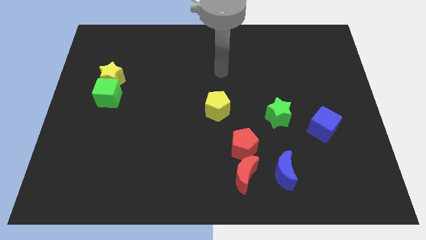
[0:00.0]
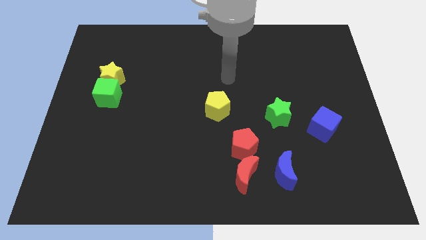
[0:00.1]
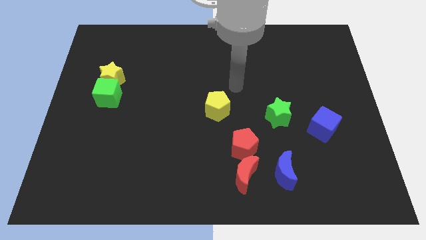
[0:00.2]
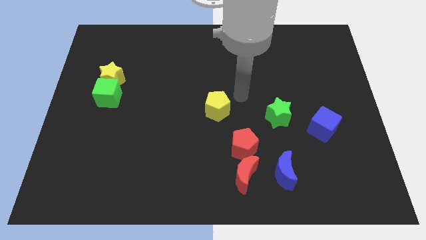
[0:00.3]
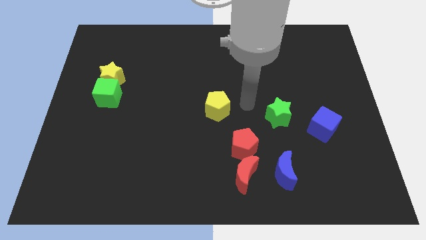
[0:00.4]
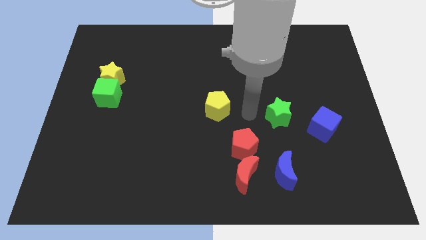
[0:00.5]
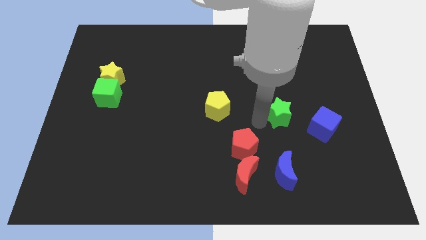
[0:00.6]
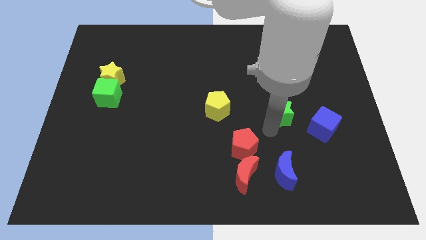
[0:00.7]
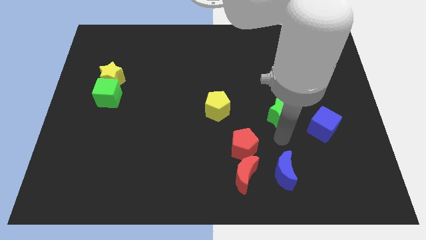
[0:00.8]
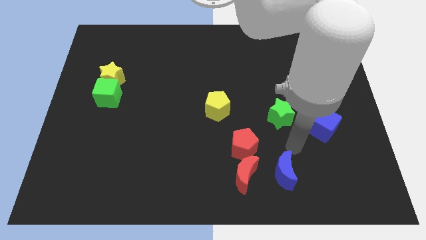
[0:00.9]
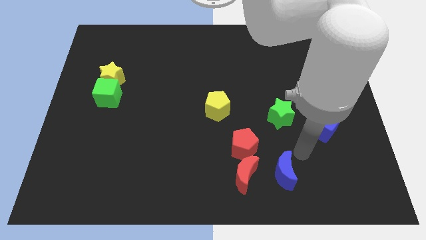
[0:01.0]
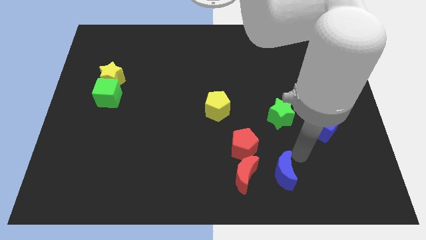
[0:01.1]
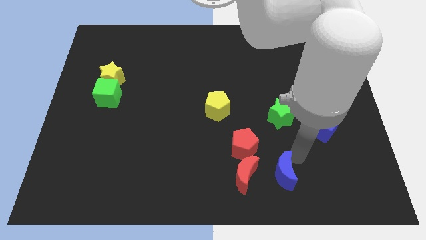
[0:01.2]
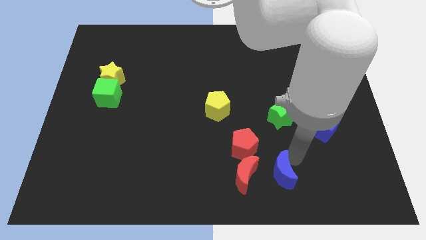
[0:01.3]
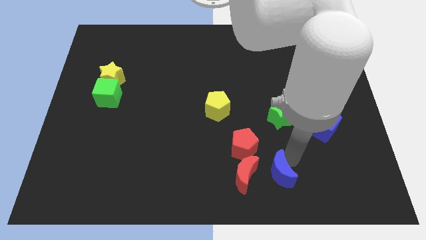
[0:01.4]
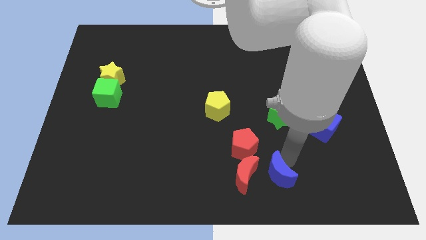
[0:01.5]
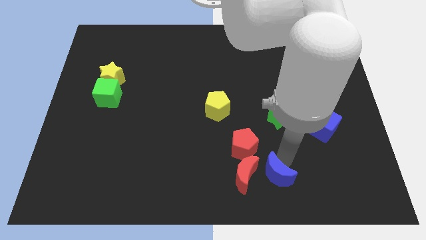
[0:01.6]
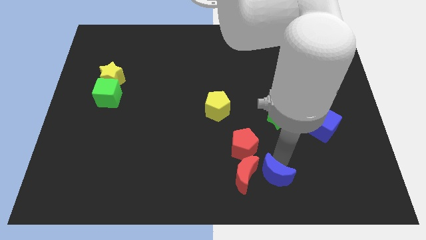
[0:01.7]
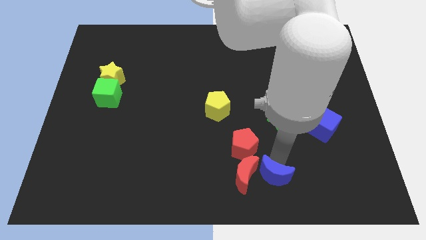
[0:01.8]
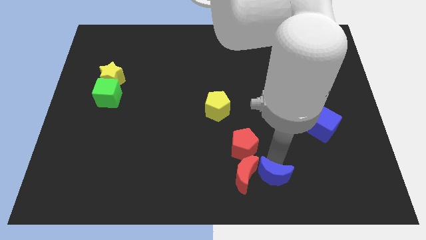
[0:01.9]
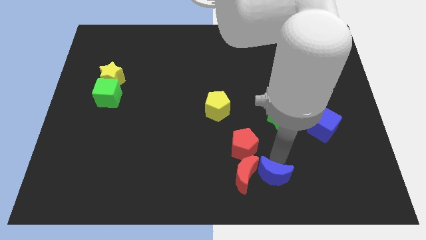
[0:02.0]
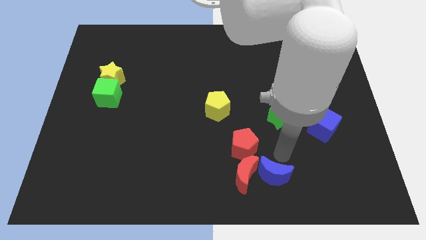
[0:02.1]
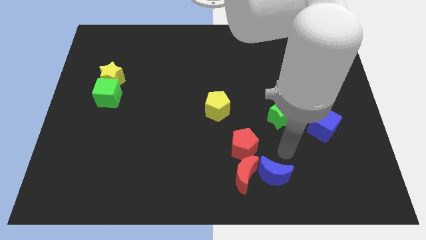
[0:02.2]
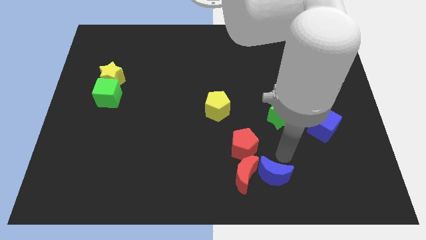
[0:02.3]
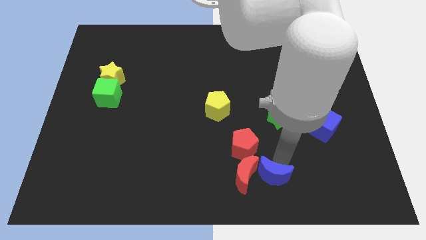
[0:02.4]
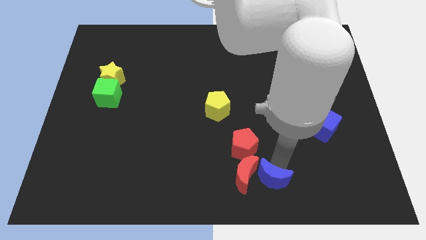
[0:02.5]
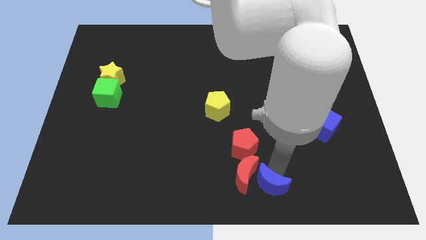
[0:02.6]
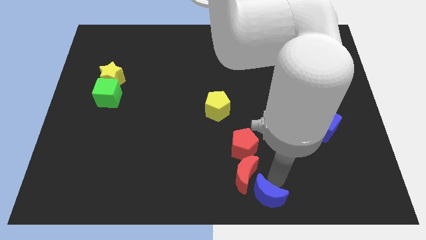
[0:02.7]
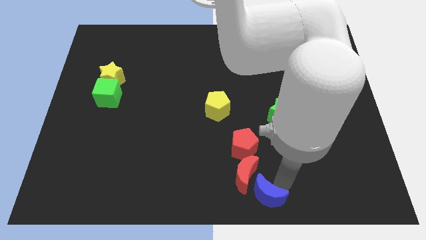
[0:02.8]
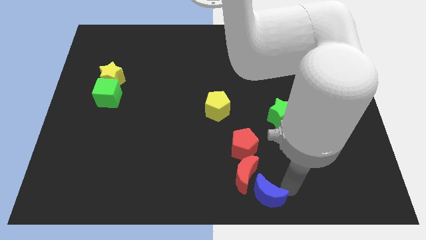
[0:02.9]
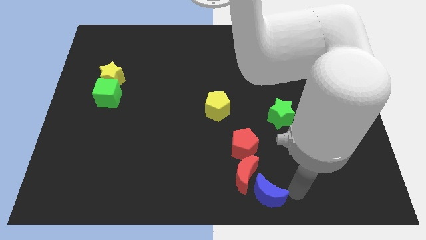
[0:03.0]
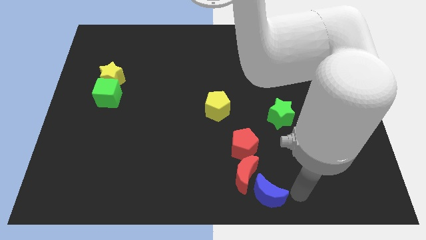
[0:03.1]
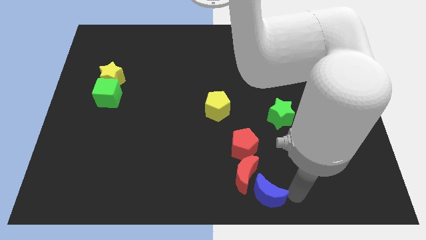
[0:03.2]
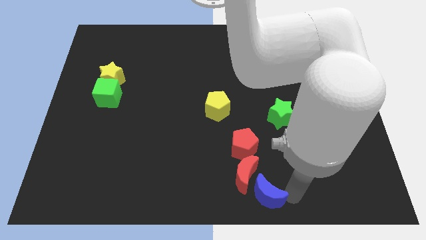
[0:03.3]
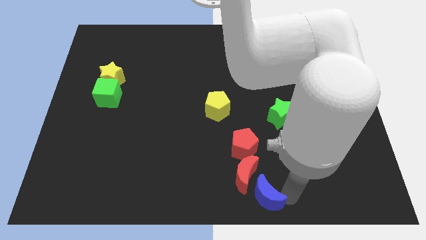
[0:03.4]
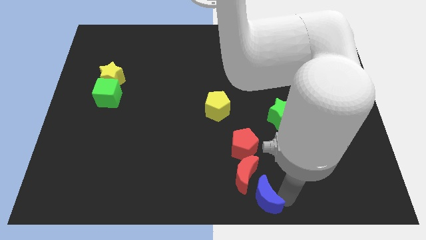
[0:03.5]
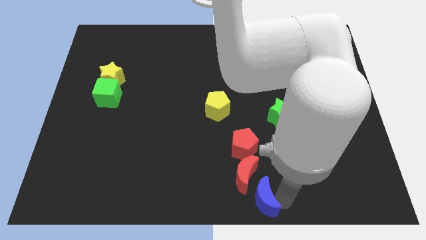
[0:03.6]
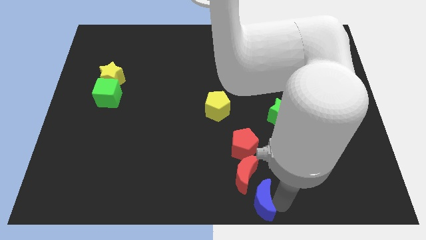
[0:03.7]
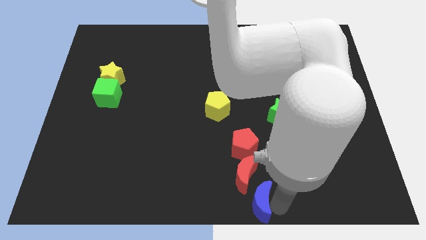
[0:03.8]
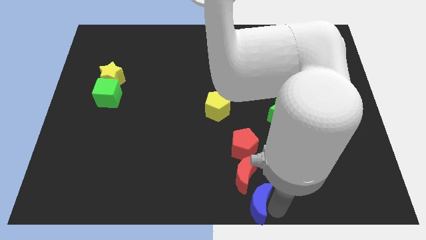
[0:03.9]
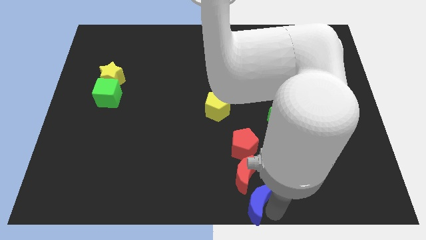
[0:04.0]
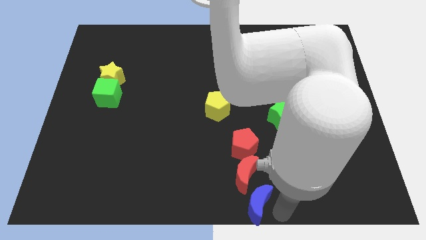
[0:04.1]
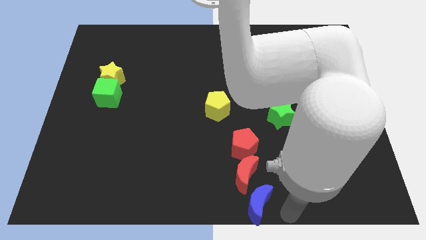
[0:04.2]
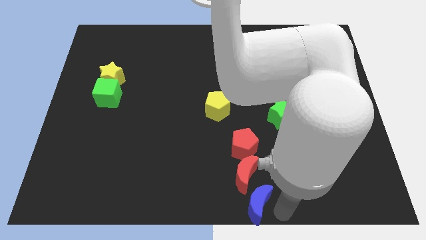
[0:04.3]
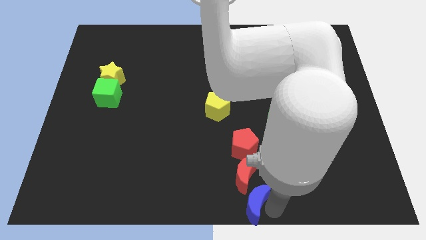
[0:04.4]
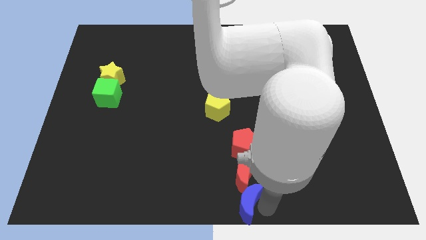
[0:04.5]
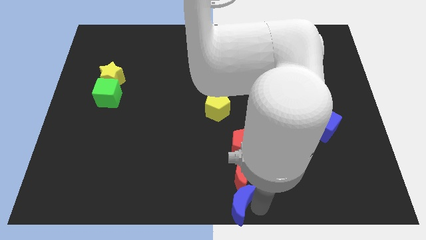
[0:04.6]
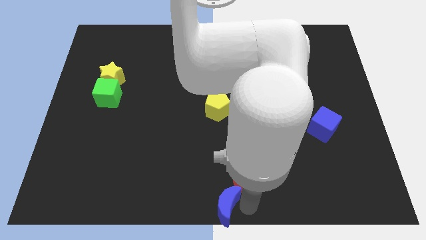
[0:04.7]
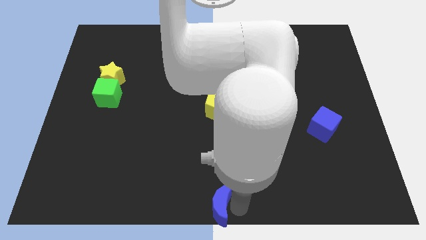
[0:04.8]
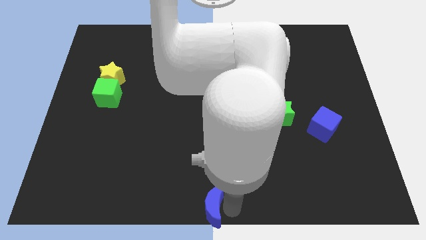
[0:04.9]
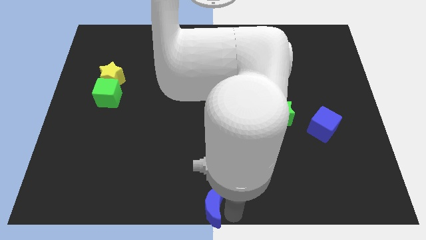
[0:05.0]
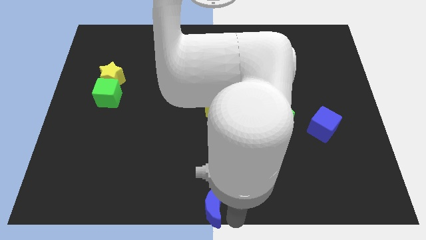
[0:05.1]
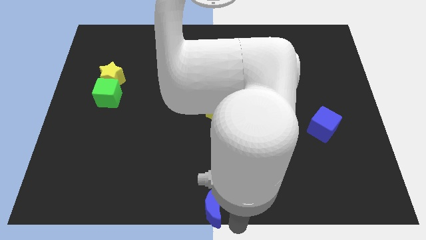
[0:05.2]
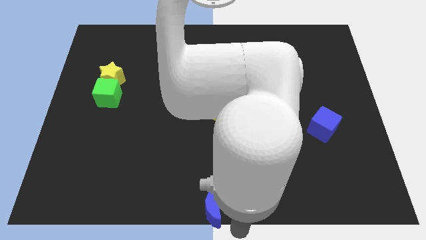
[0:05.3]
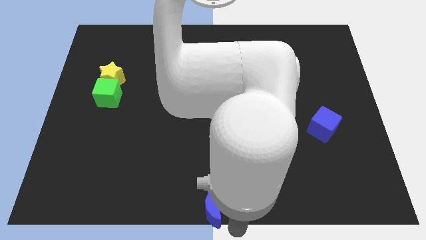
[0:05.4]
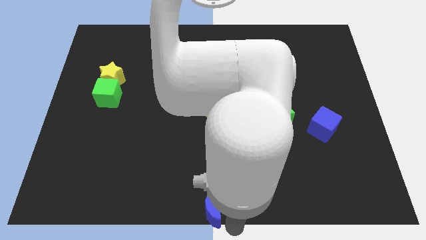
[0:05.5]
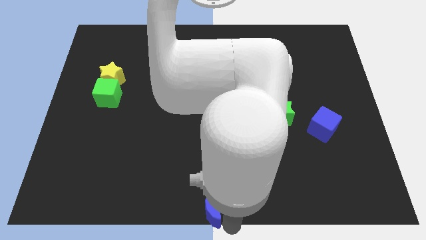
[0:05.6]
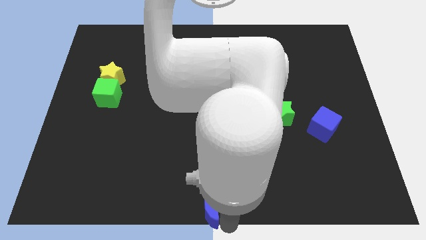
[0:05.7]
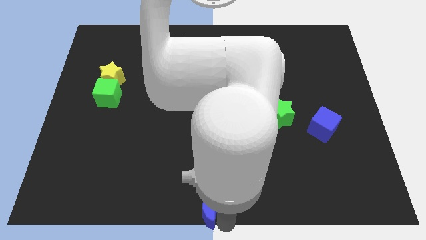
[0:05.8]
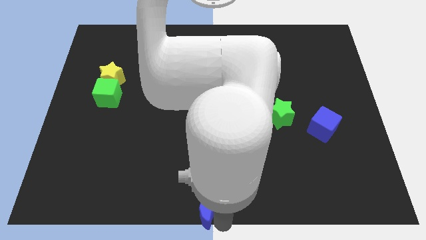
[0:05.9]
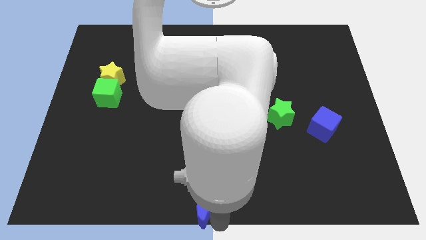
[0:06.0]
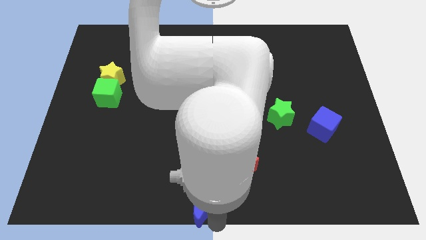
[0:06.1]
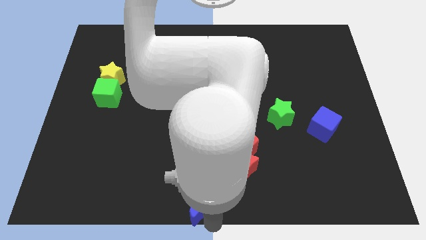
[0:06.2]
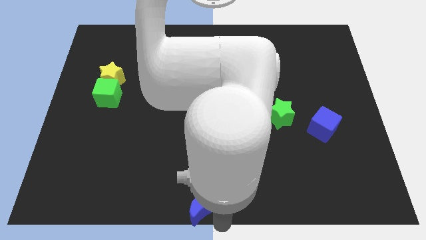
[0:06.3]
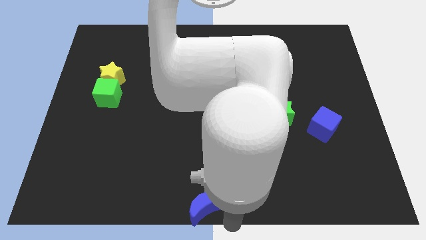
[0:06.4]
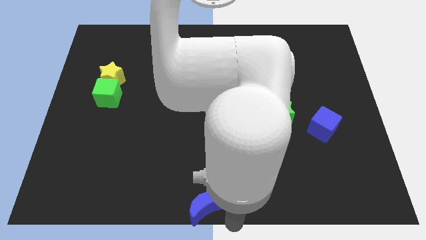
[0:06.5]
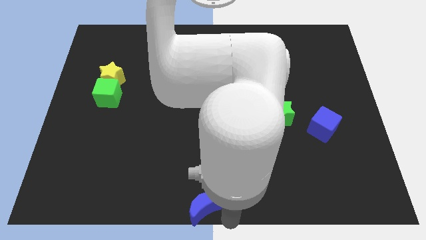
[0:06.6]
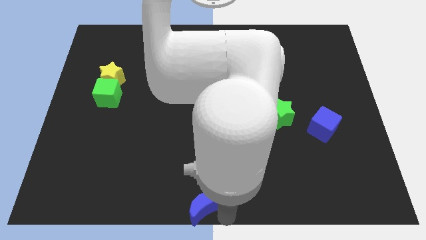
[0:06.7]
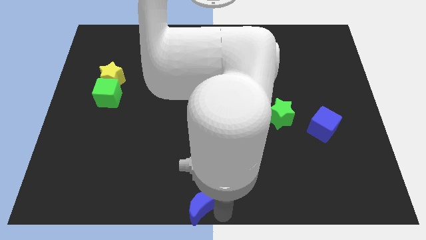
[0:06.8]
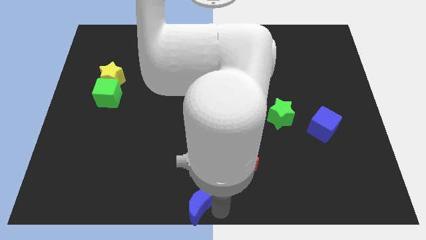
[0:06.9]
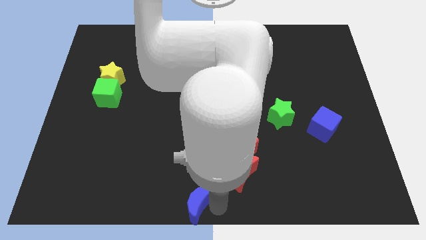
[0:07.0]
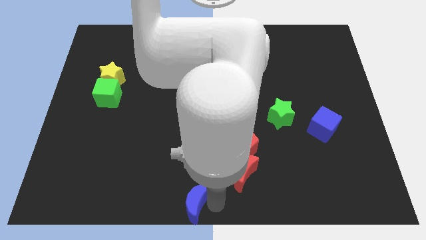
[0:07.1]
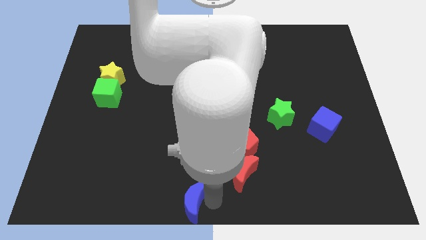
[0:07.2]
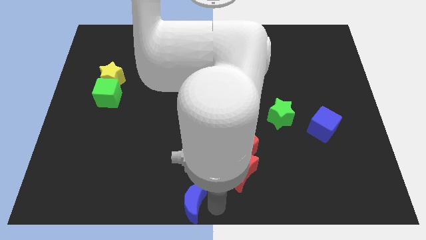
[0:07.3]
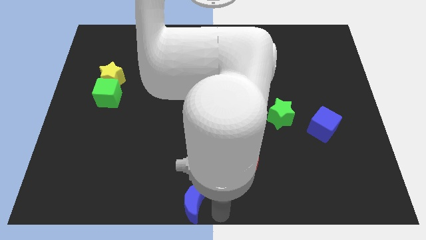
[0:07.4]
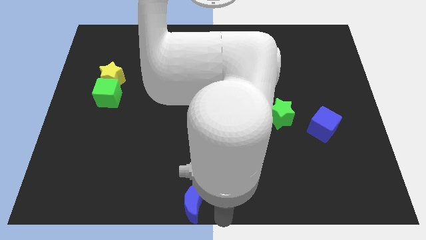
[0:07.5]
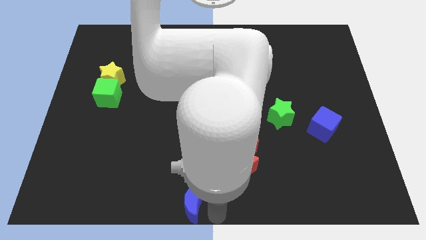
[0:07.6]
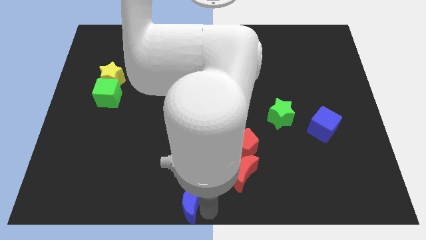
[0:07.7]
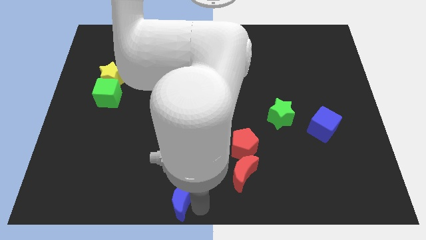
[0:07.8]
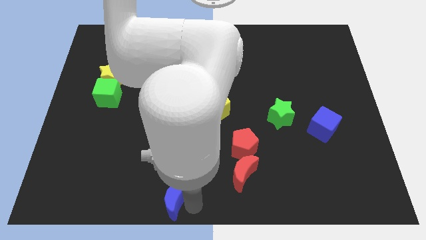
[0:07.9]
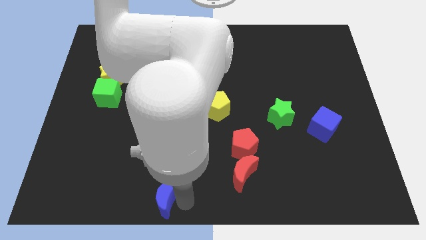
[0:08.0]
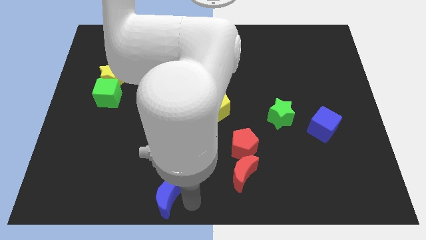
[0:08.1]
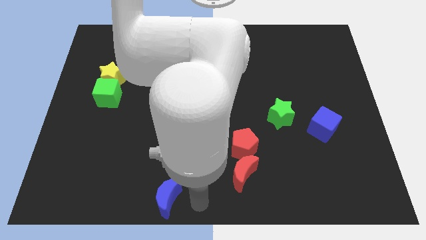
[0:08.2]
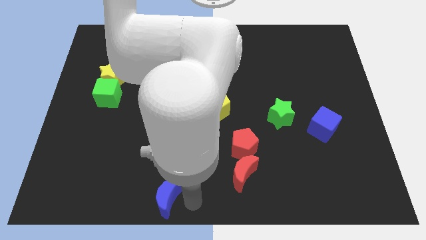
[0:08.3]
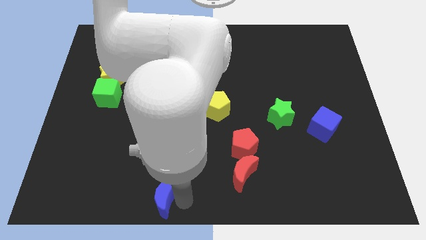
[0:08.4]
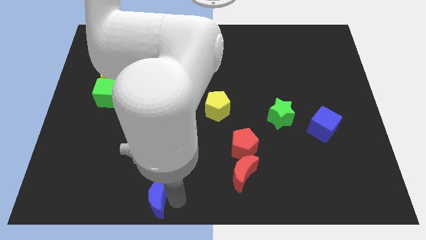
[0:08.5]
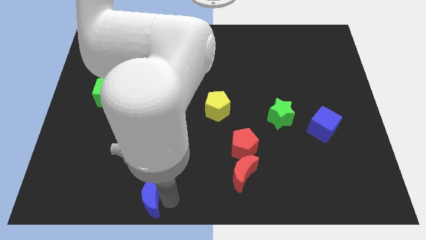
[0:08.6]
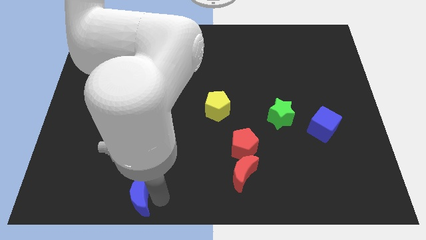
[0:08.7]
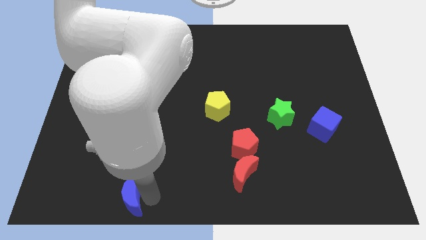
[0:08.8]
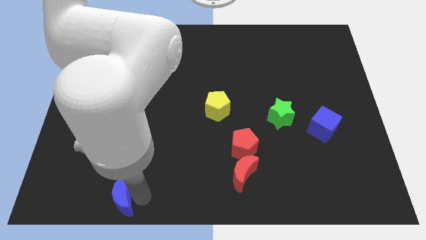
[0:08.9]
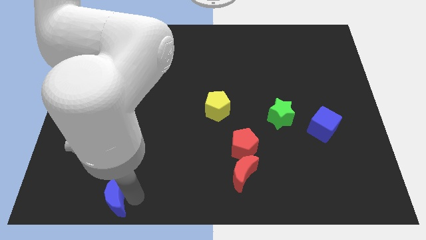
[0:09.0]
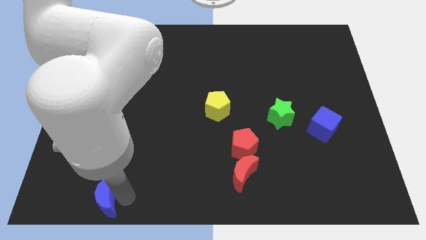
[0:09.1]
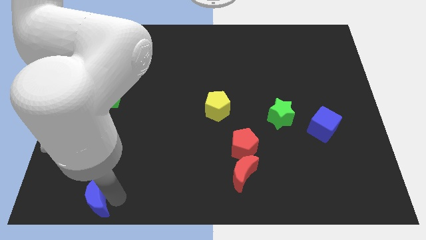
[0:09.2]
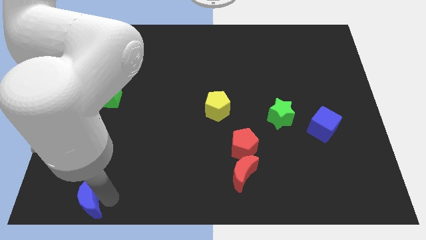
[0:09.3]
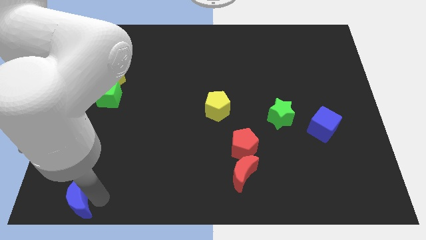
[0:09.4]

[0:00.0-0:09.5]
put the blue moon to the bottom left
